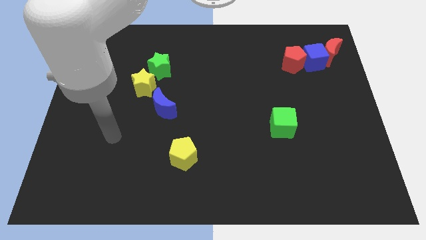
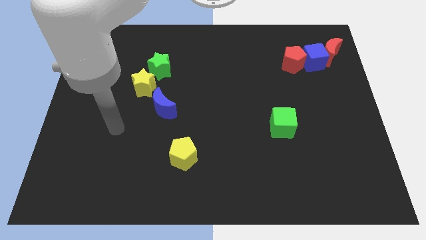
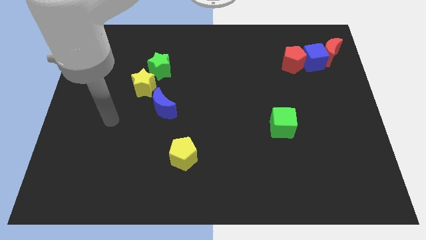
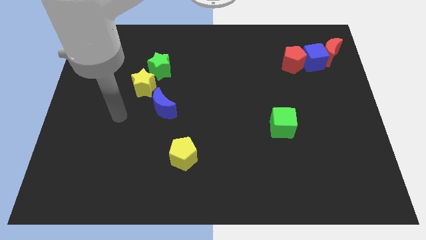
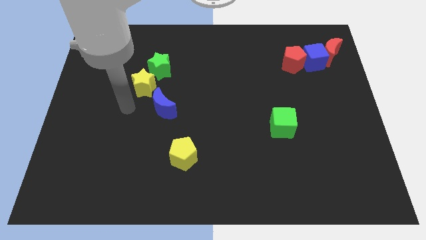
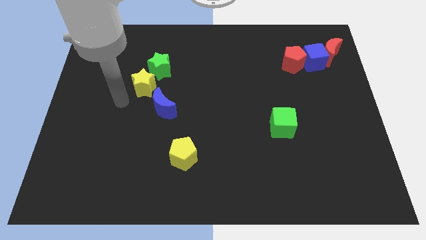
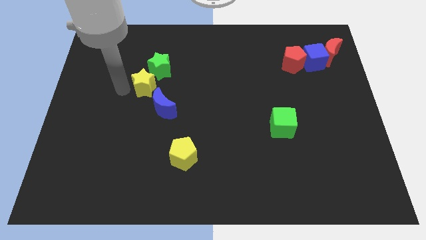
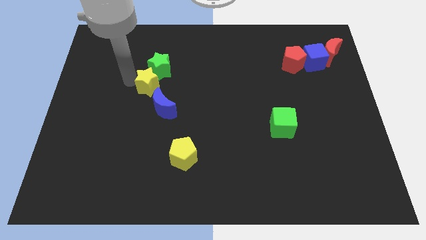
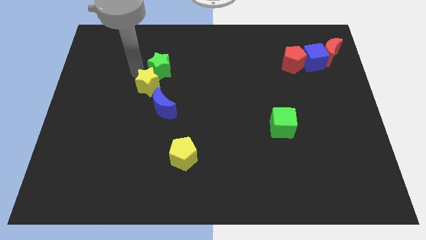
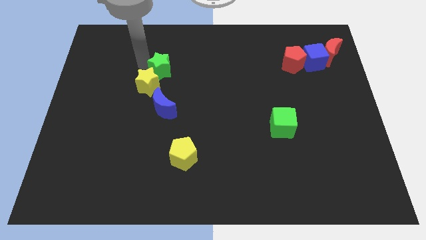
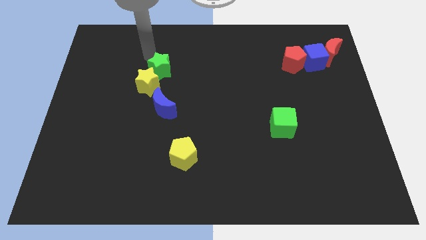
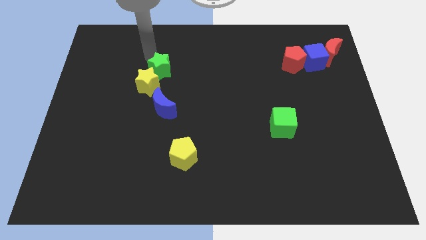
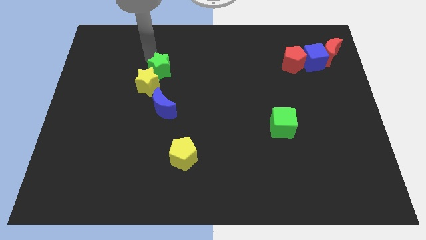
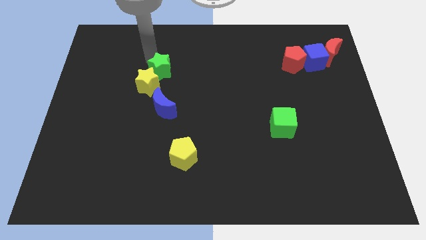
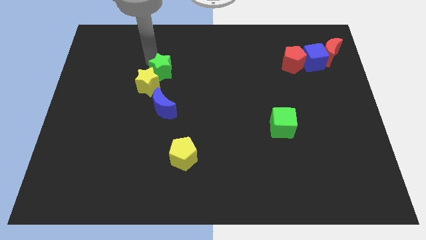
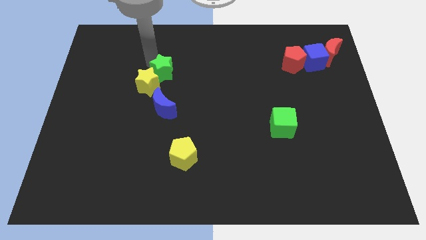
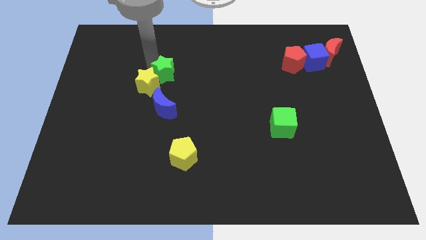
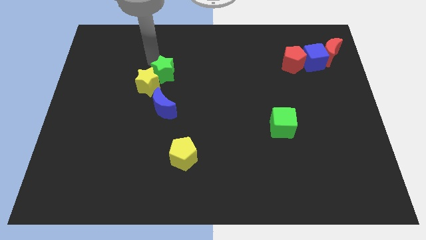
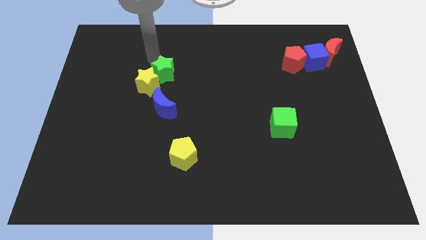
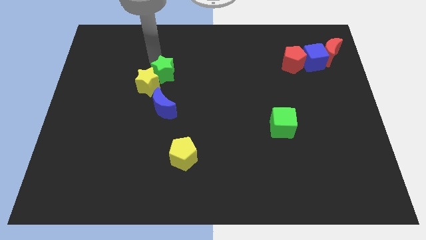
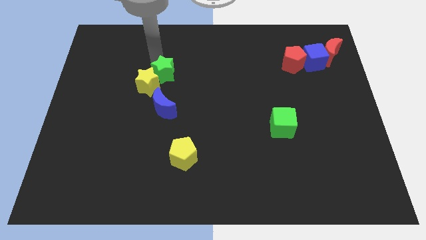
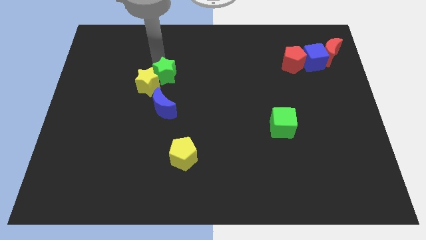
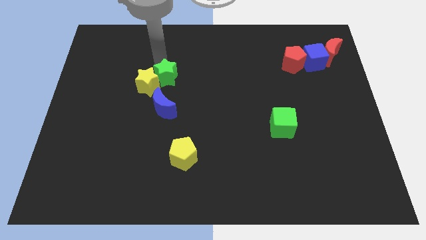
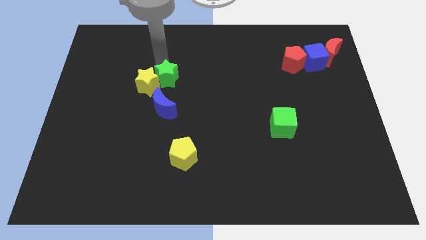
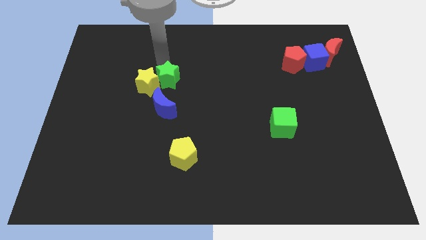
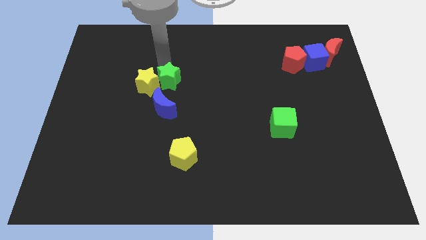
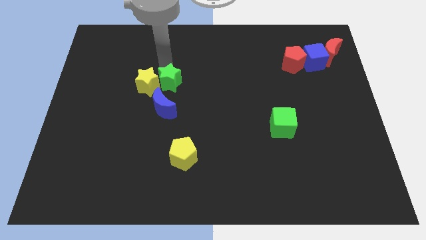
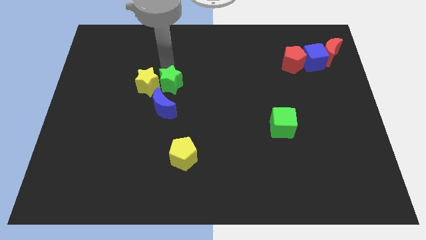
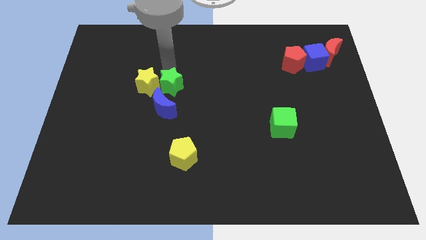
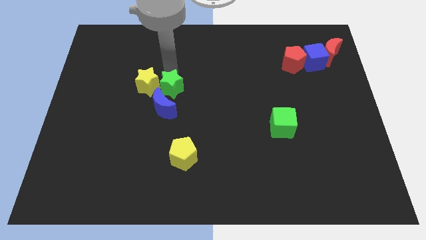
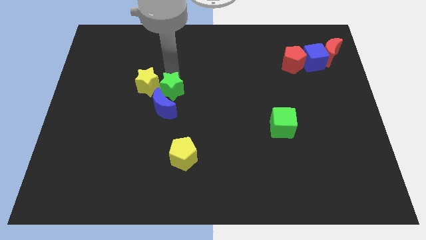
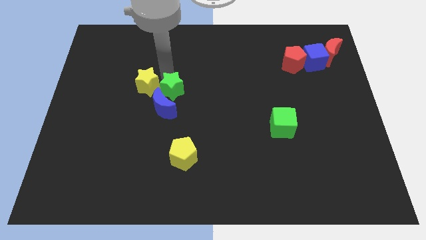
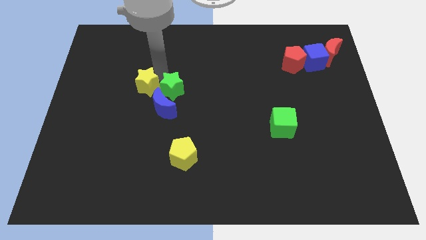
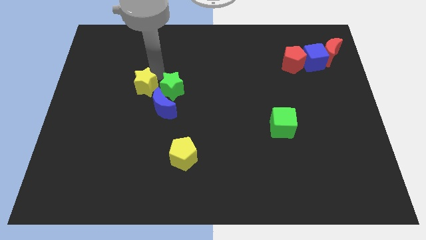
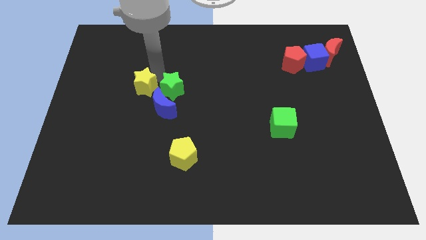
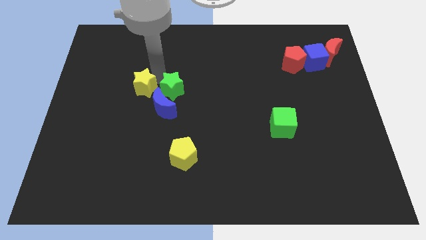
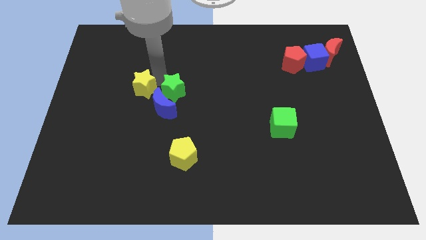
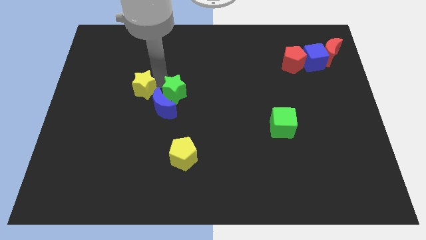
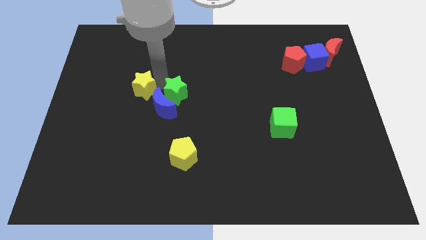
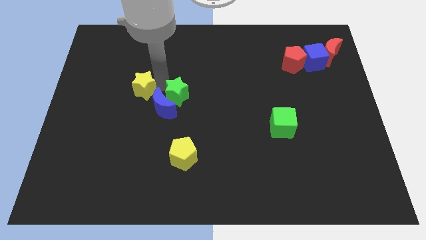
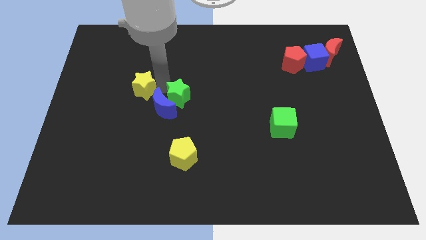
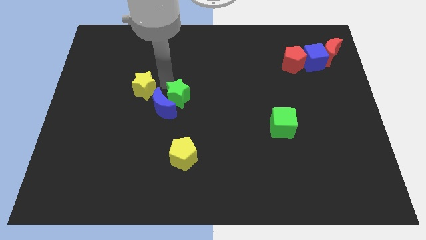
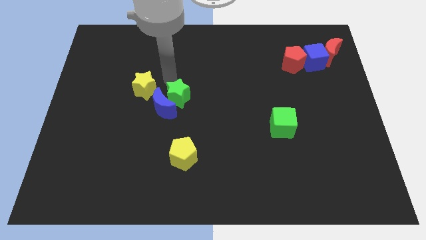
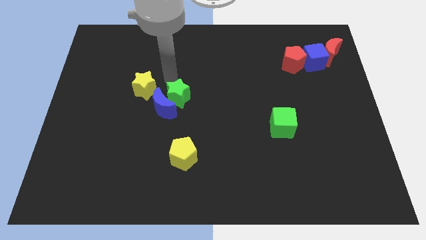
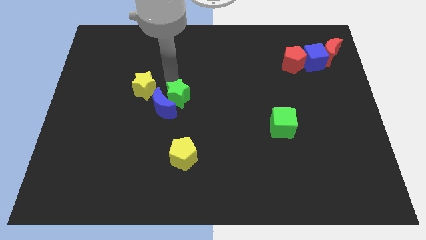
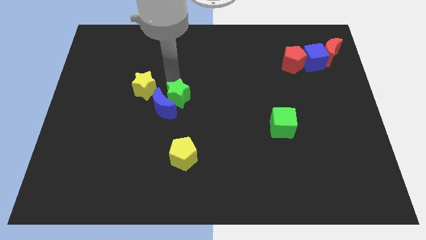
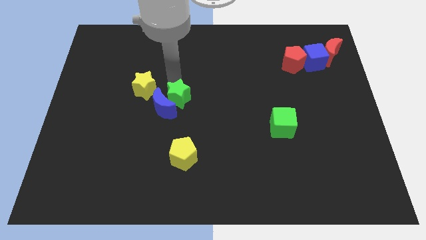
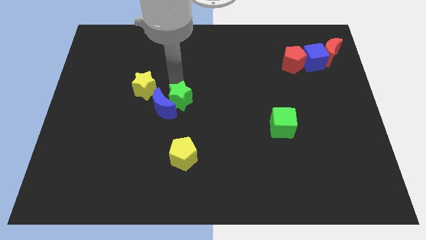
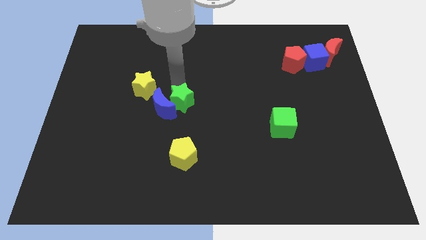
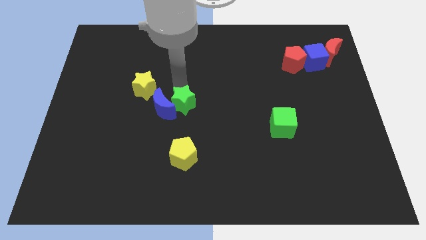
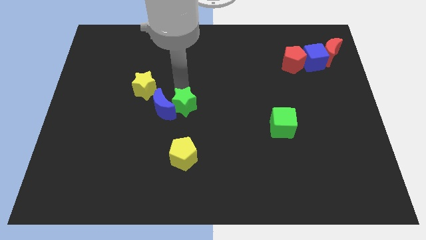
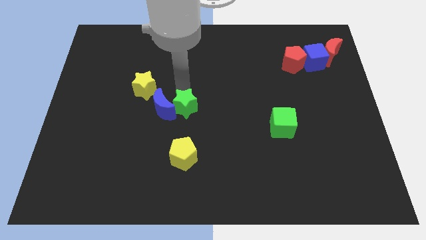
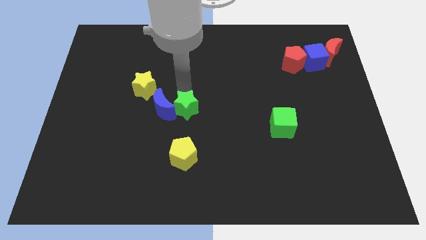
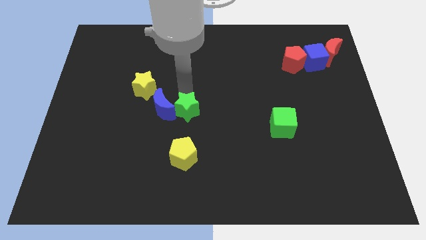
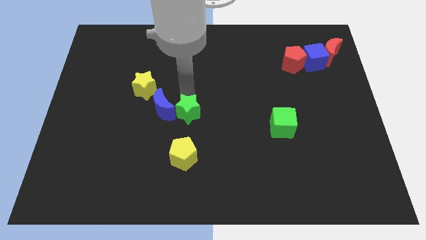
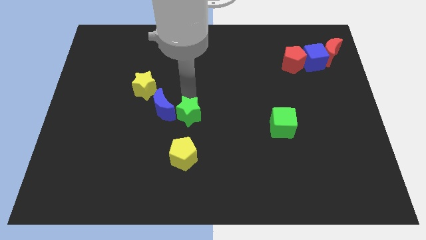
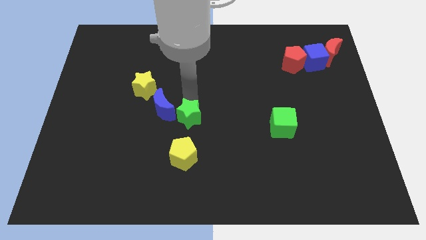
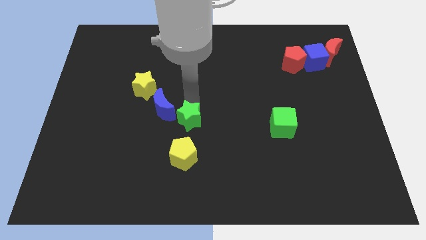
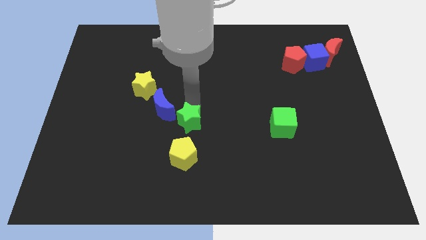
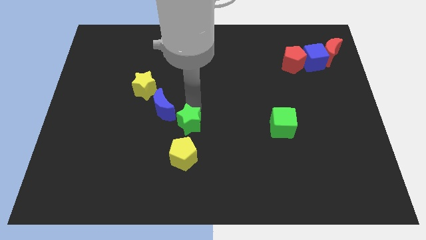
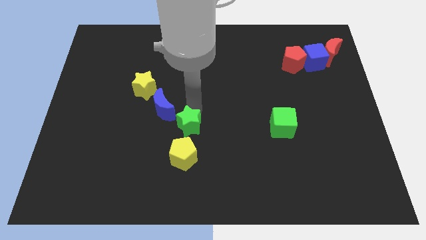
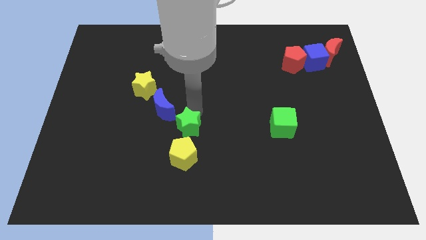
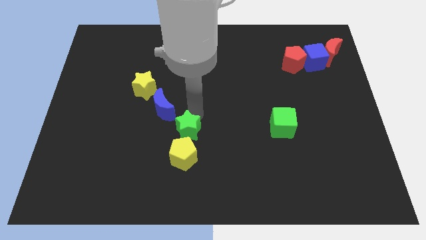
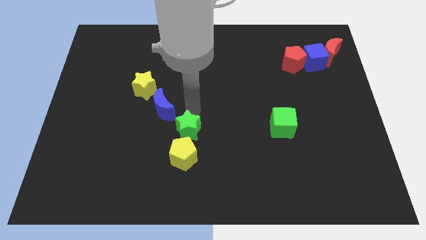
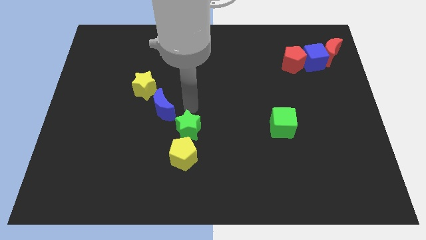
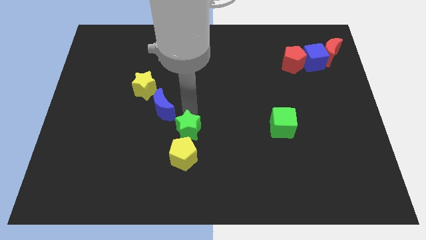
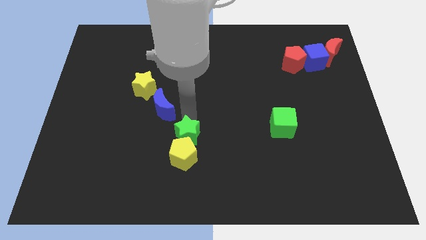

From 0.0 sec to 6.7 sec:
slide the green star to the yellow pentagon
